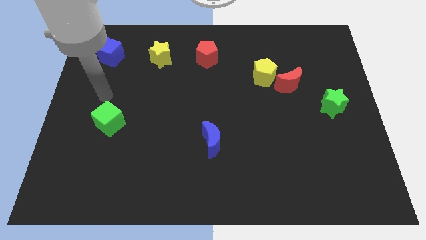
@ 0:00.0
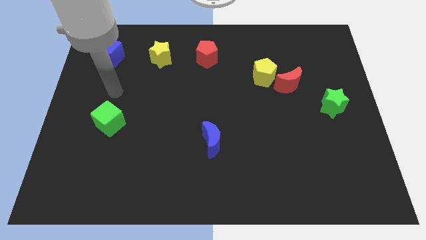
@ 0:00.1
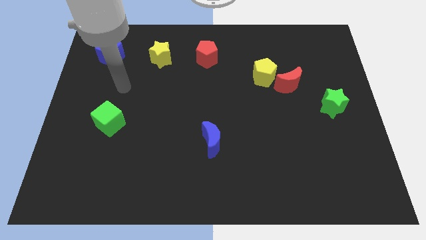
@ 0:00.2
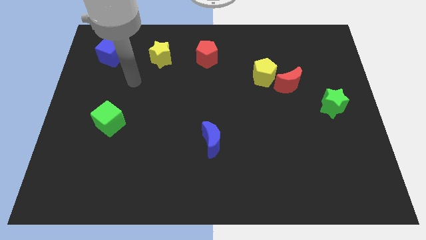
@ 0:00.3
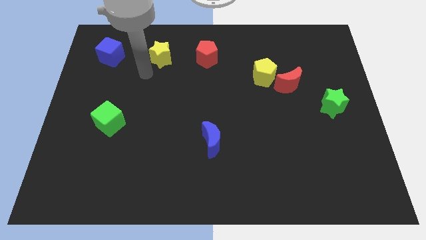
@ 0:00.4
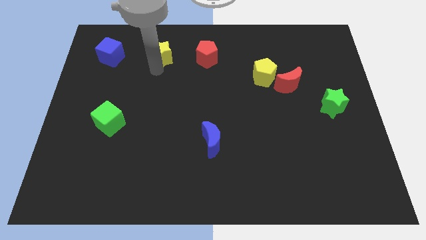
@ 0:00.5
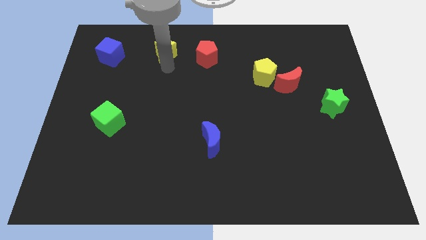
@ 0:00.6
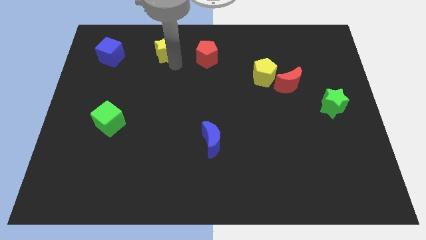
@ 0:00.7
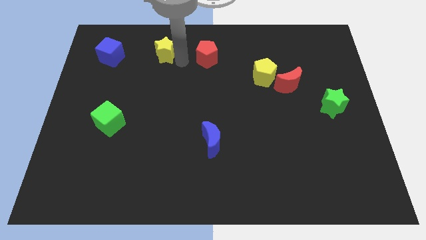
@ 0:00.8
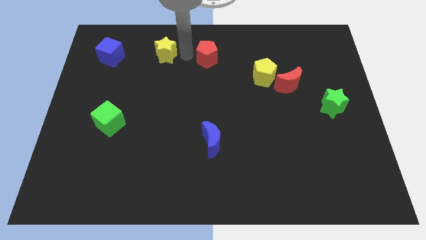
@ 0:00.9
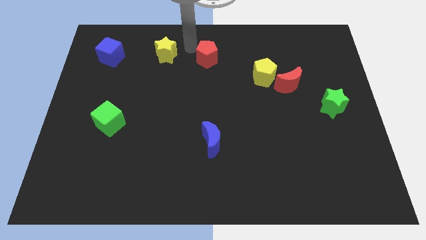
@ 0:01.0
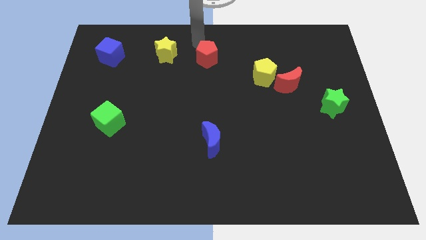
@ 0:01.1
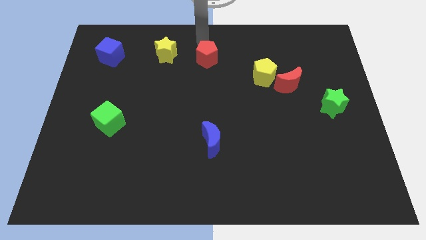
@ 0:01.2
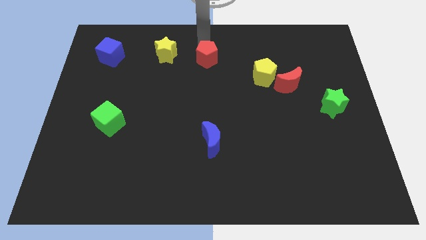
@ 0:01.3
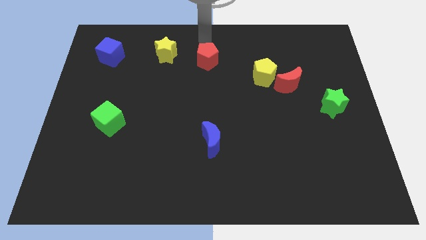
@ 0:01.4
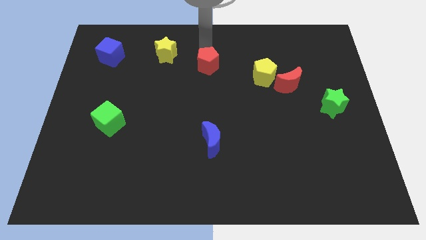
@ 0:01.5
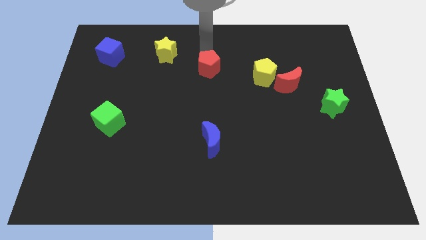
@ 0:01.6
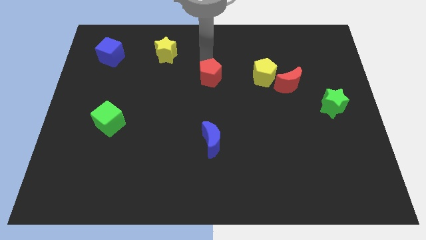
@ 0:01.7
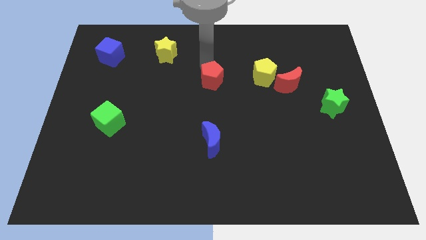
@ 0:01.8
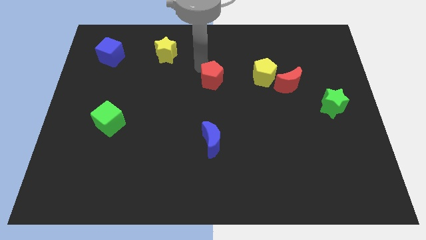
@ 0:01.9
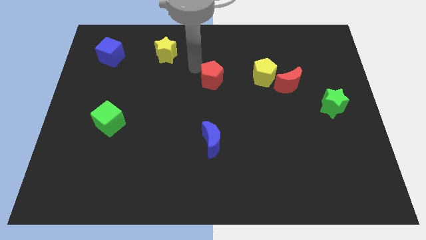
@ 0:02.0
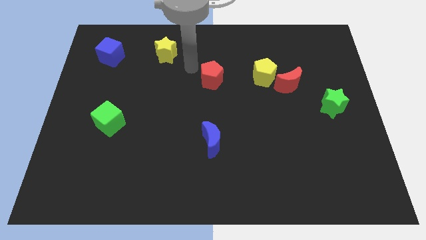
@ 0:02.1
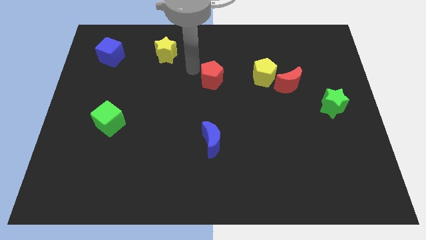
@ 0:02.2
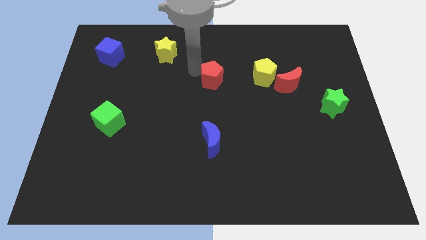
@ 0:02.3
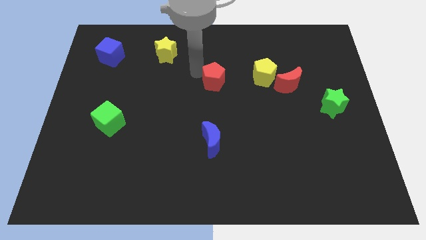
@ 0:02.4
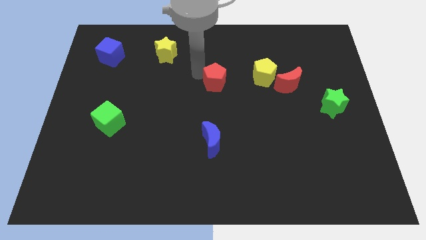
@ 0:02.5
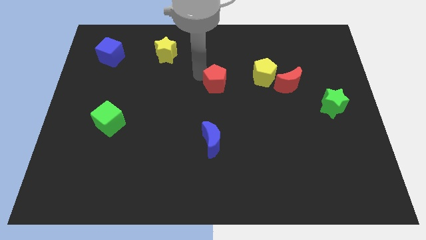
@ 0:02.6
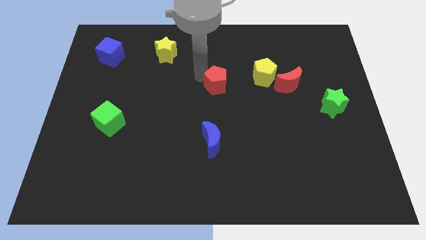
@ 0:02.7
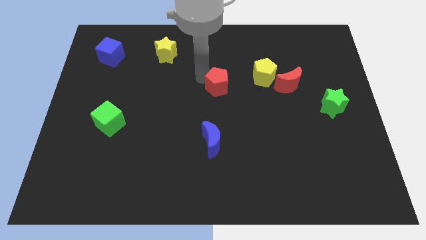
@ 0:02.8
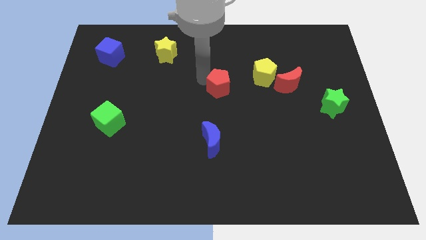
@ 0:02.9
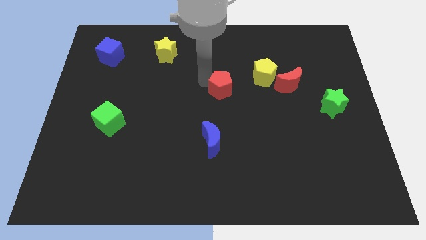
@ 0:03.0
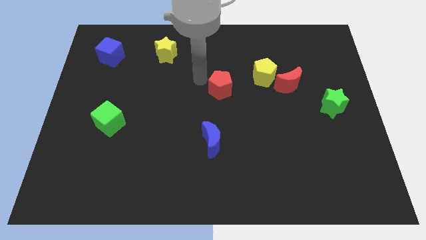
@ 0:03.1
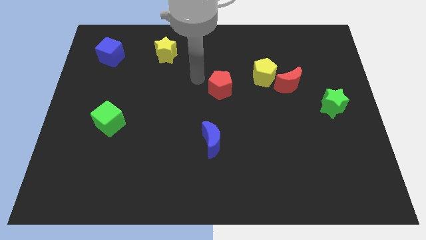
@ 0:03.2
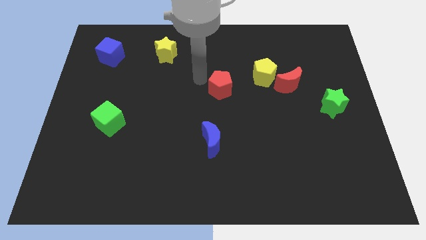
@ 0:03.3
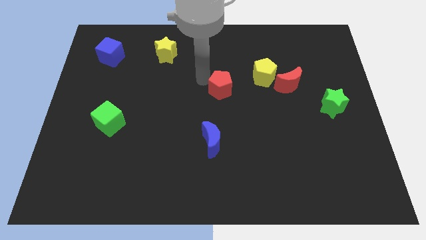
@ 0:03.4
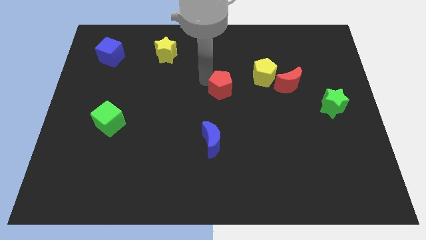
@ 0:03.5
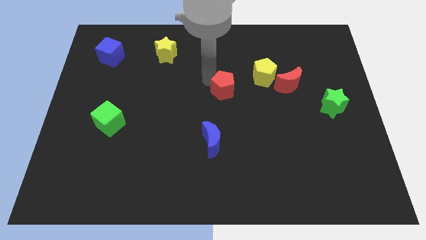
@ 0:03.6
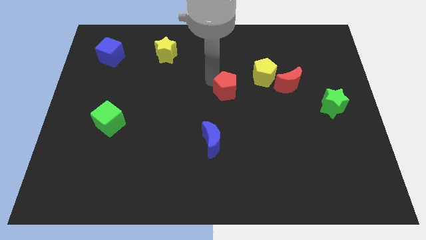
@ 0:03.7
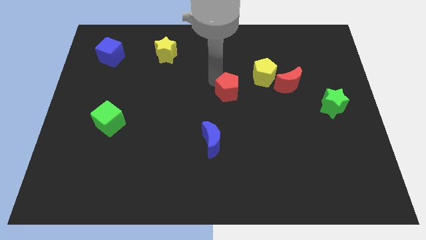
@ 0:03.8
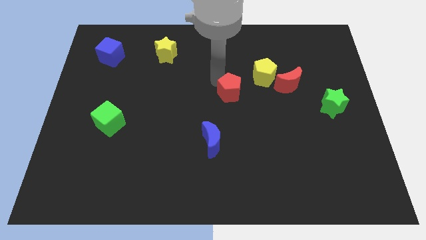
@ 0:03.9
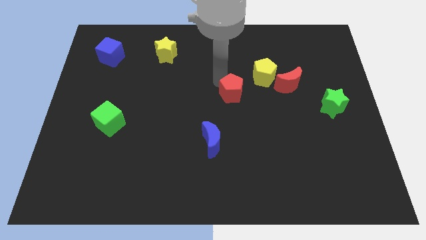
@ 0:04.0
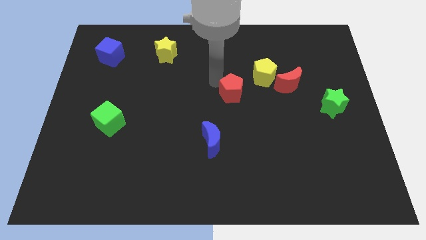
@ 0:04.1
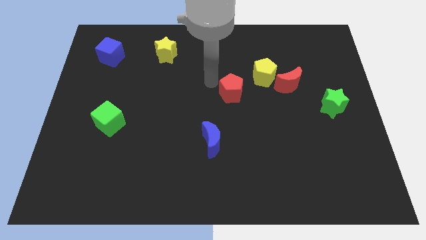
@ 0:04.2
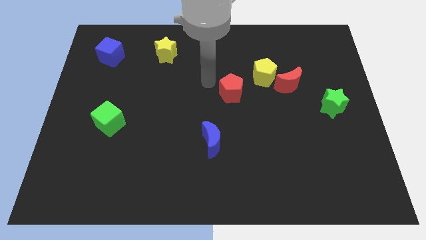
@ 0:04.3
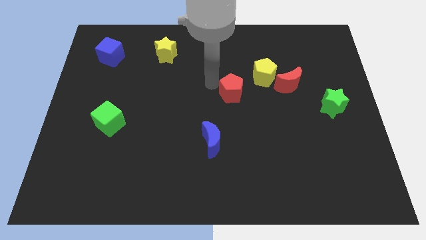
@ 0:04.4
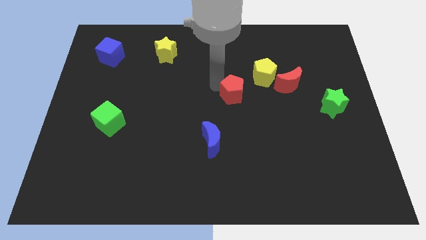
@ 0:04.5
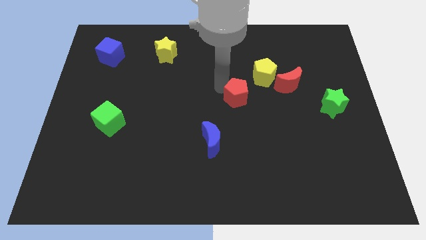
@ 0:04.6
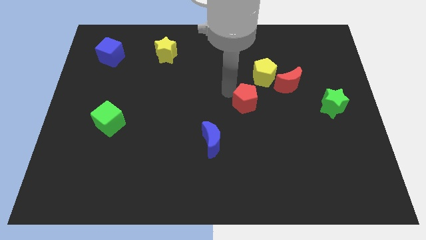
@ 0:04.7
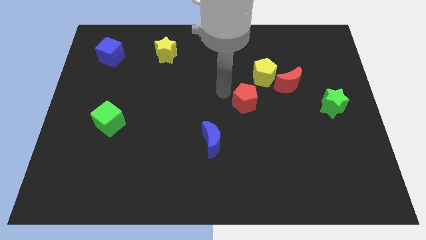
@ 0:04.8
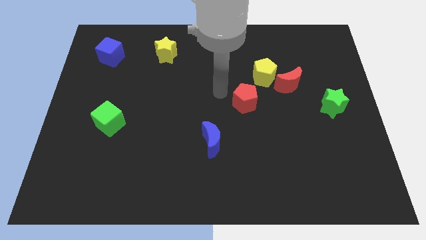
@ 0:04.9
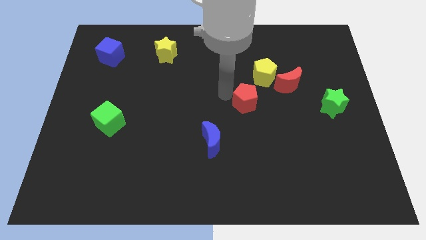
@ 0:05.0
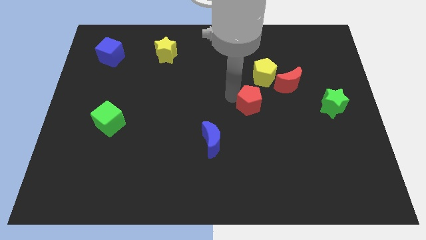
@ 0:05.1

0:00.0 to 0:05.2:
push the red pentagon below the yellow pentagon

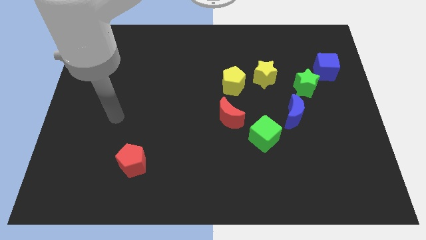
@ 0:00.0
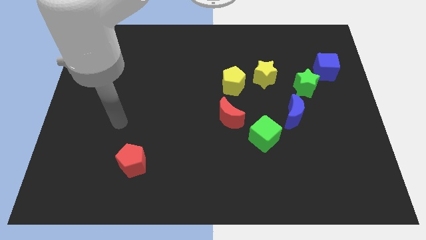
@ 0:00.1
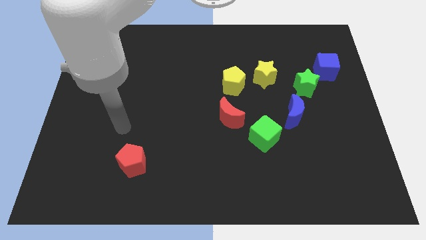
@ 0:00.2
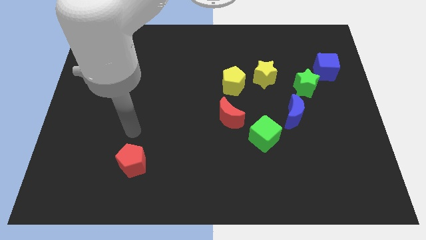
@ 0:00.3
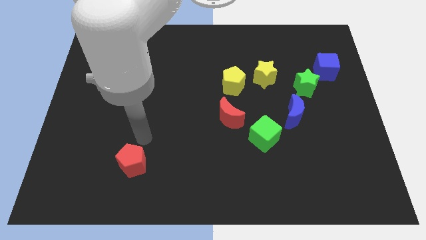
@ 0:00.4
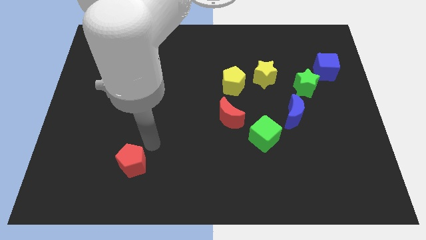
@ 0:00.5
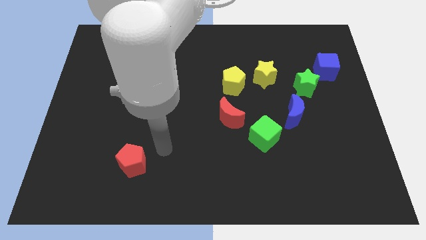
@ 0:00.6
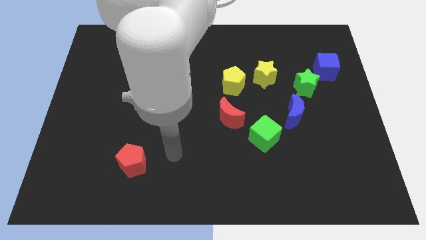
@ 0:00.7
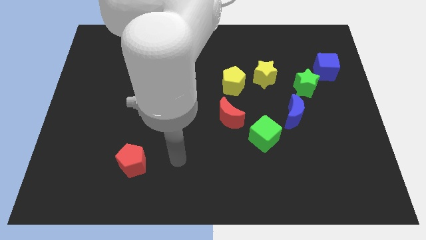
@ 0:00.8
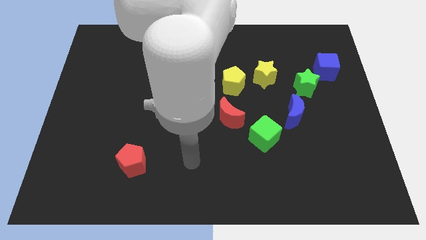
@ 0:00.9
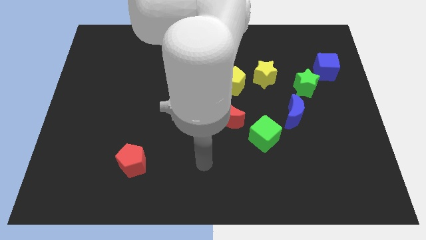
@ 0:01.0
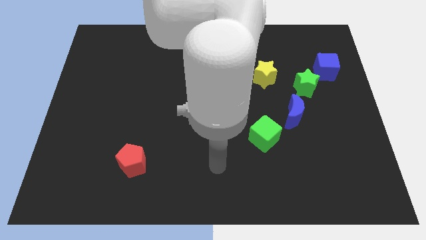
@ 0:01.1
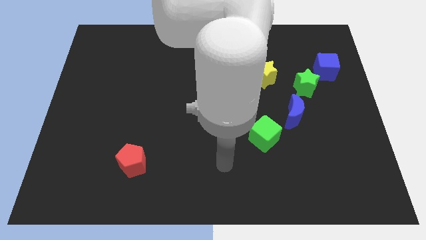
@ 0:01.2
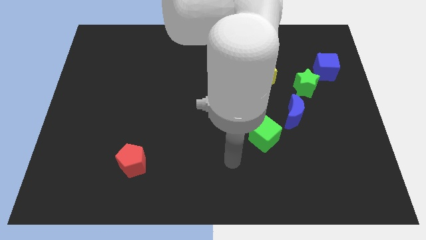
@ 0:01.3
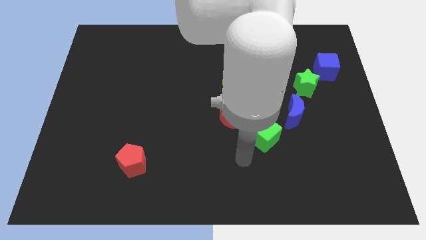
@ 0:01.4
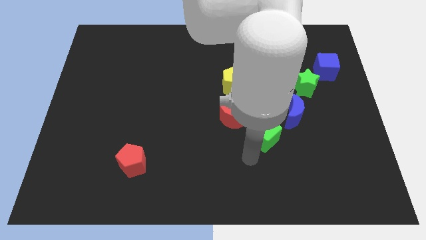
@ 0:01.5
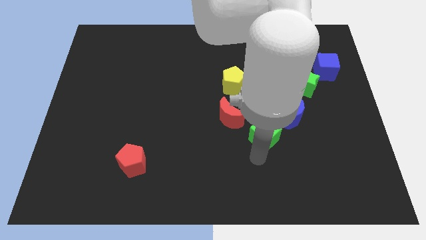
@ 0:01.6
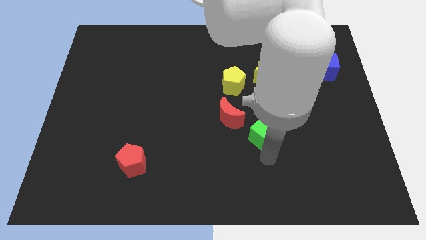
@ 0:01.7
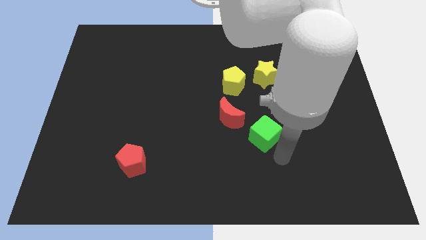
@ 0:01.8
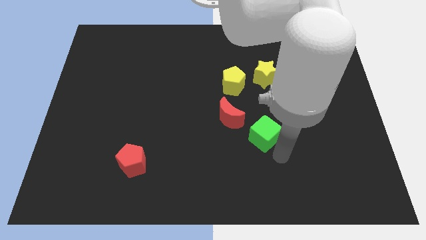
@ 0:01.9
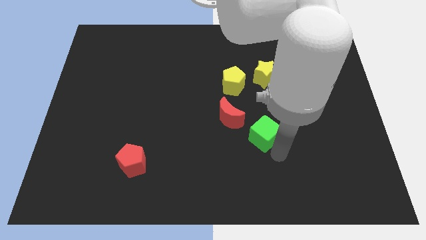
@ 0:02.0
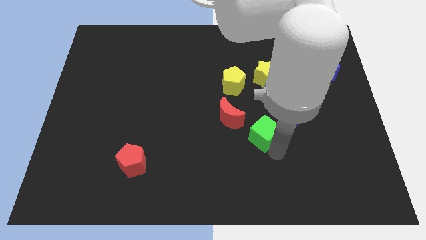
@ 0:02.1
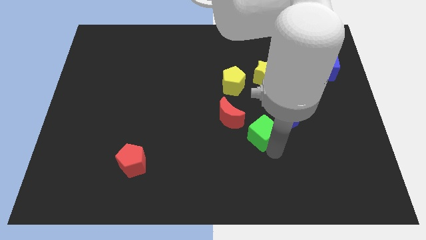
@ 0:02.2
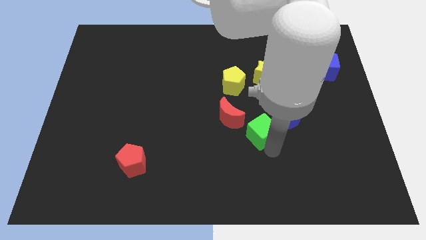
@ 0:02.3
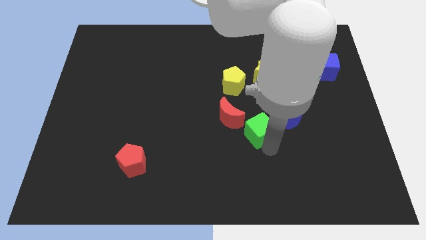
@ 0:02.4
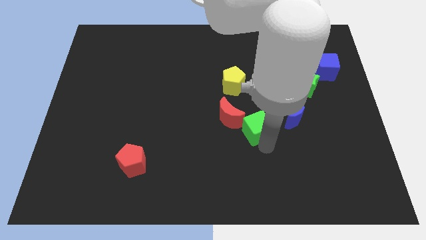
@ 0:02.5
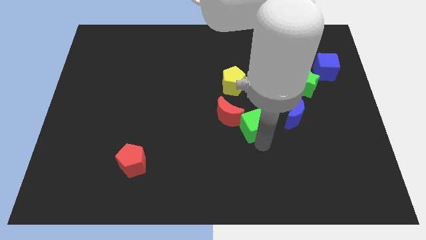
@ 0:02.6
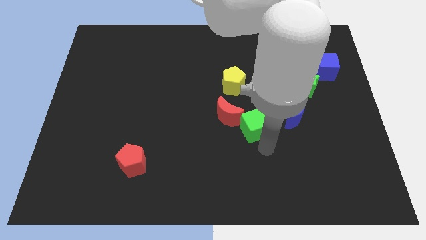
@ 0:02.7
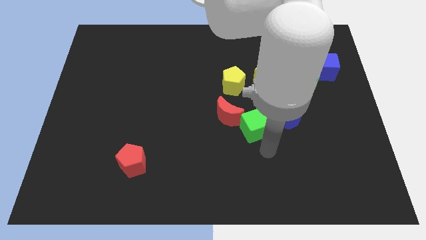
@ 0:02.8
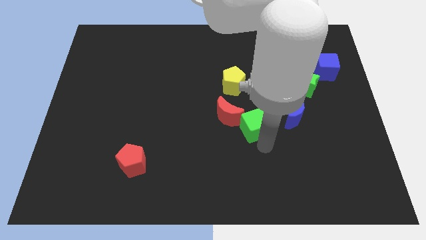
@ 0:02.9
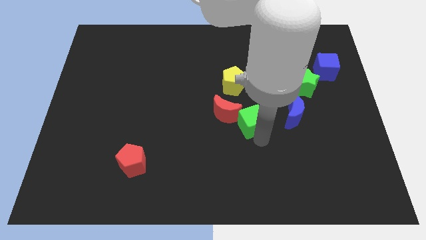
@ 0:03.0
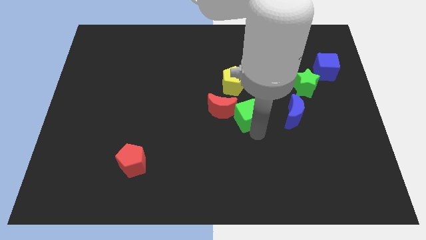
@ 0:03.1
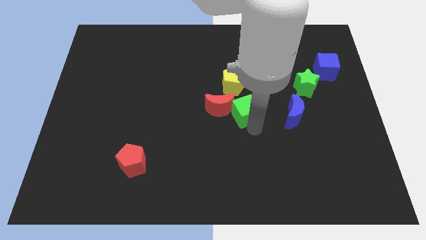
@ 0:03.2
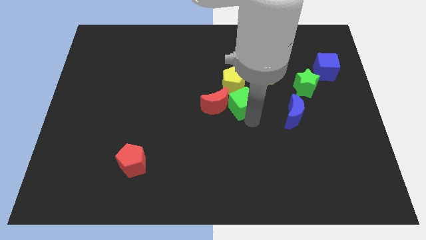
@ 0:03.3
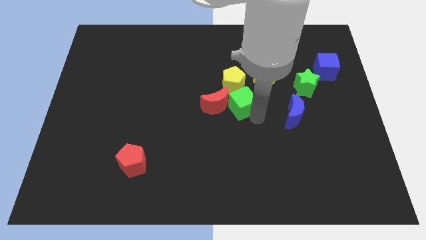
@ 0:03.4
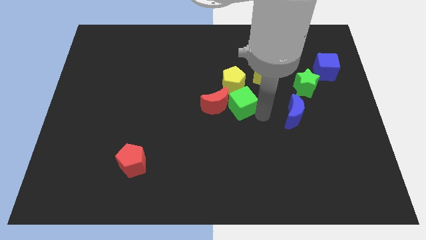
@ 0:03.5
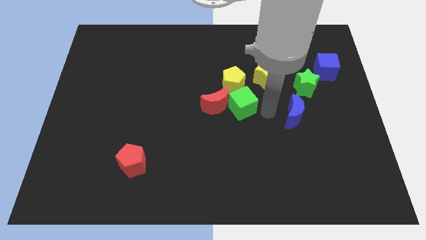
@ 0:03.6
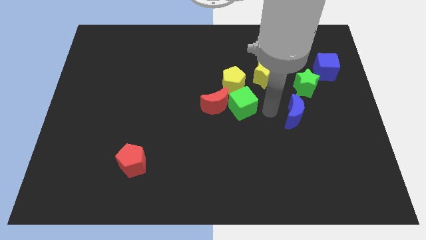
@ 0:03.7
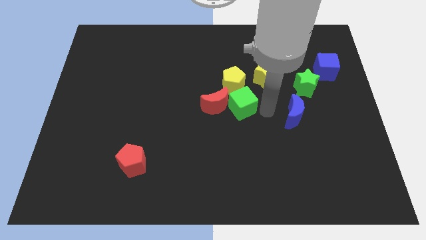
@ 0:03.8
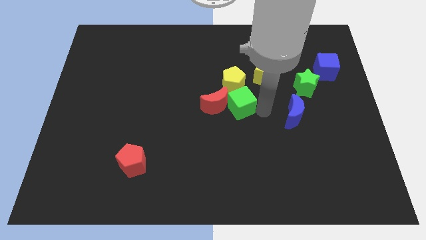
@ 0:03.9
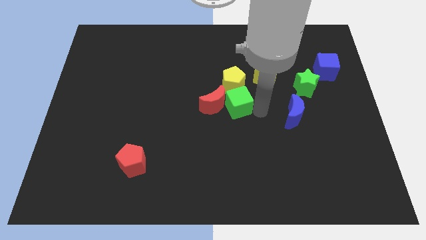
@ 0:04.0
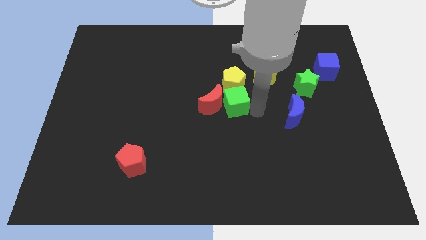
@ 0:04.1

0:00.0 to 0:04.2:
push the green cube diagonally down and to the left of the yellow pentagon
